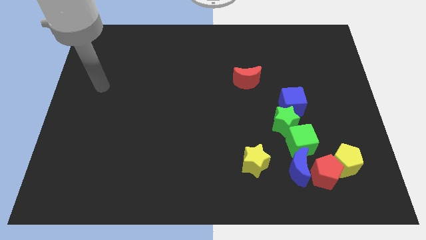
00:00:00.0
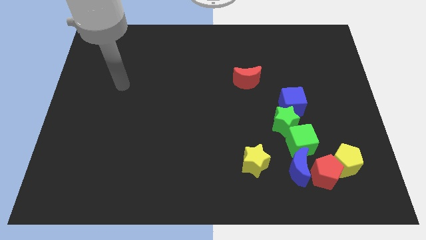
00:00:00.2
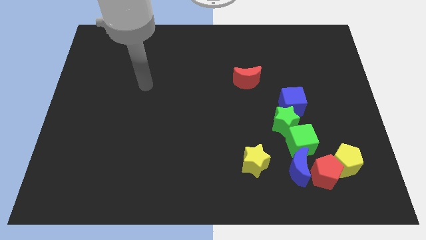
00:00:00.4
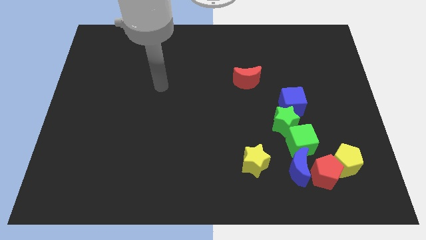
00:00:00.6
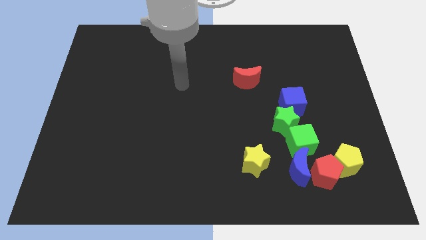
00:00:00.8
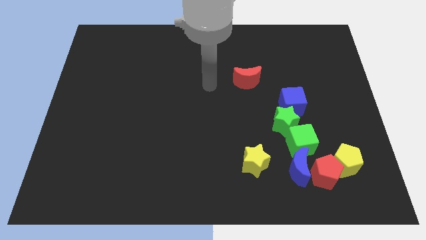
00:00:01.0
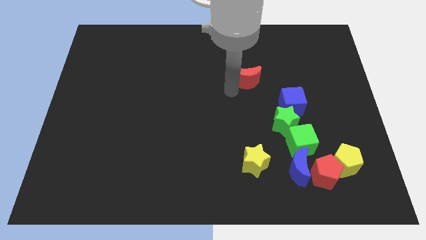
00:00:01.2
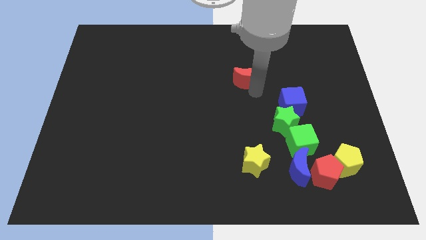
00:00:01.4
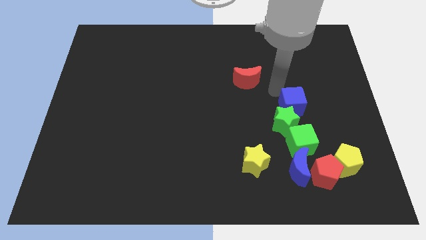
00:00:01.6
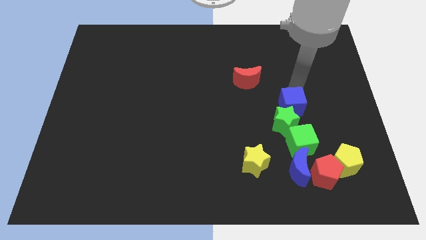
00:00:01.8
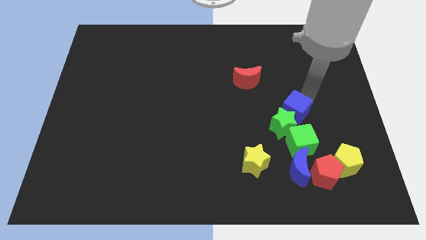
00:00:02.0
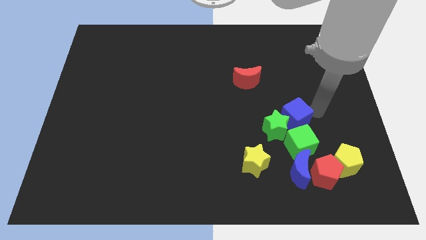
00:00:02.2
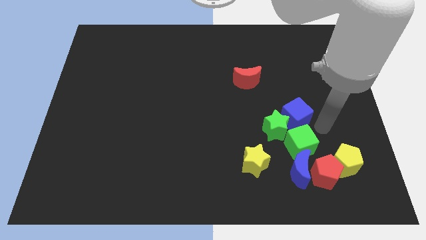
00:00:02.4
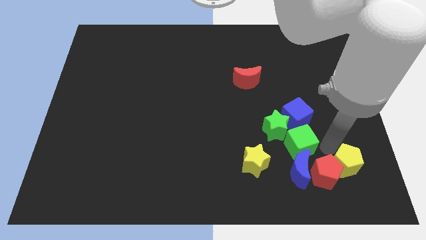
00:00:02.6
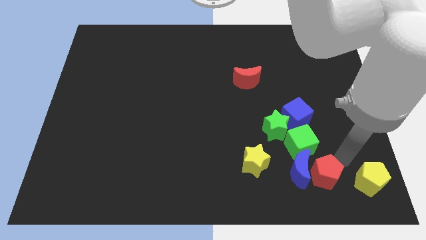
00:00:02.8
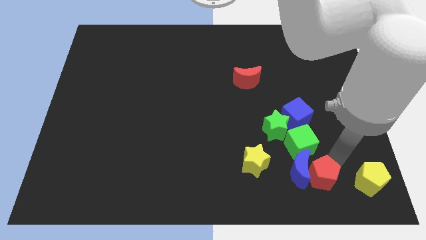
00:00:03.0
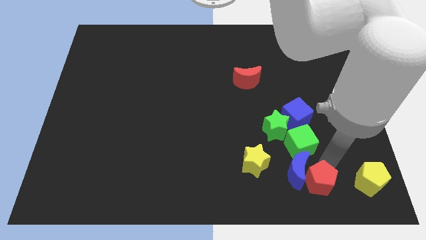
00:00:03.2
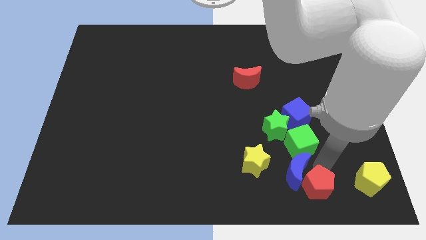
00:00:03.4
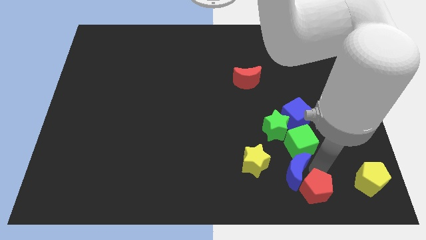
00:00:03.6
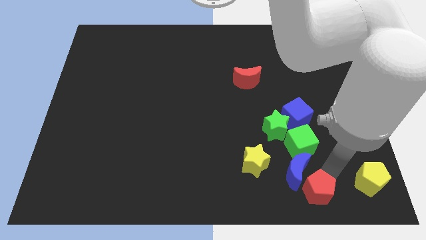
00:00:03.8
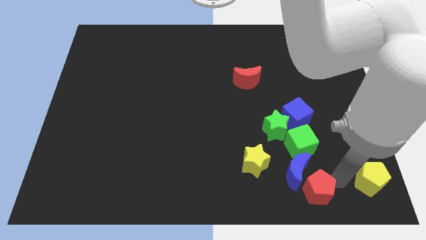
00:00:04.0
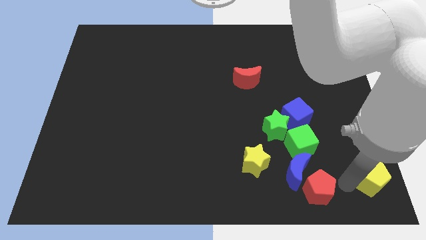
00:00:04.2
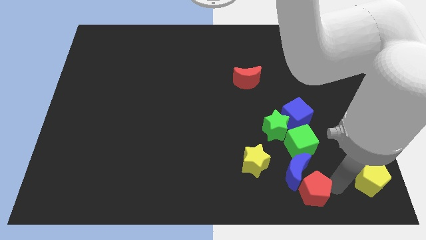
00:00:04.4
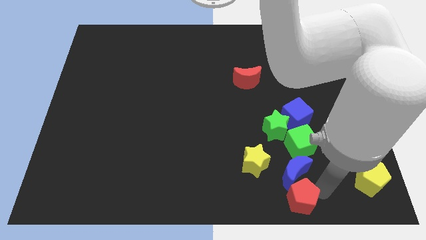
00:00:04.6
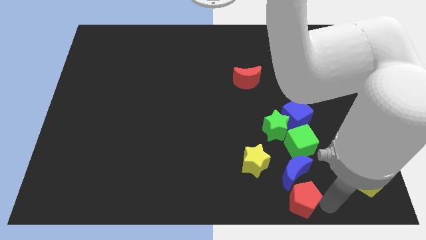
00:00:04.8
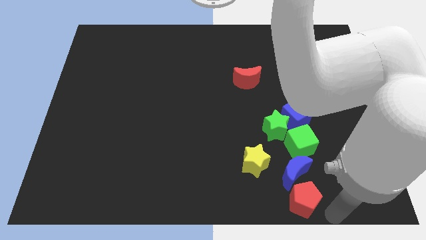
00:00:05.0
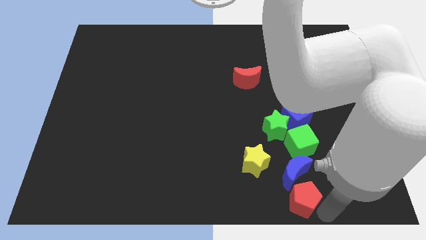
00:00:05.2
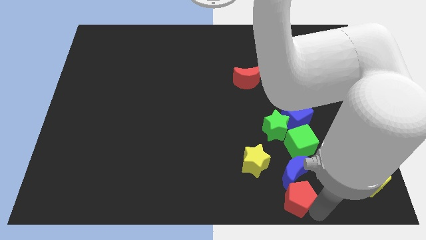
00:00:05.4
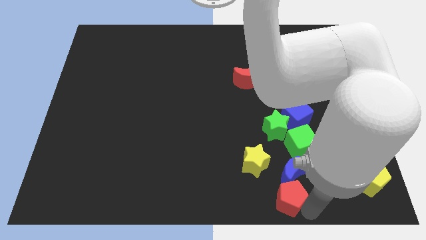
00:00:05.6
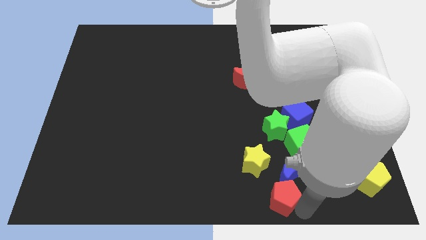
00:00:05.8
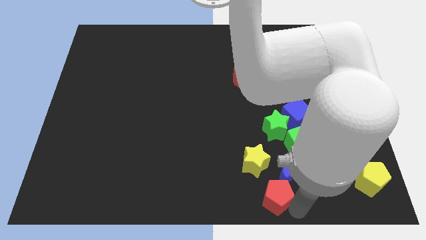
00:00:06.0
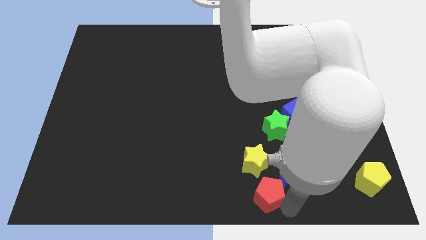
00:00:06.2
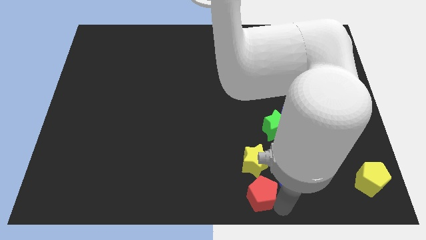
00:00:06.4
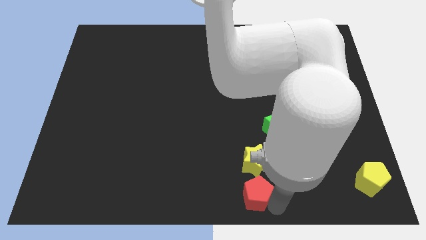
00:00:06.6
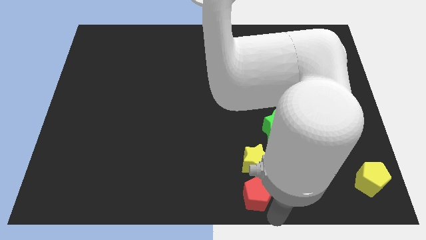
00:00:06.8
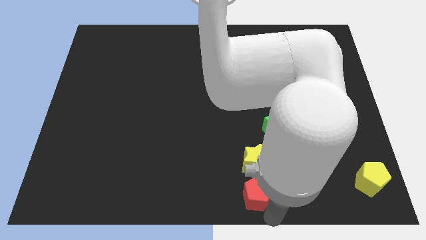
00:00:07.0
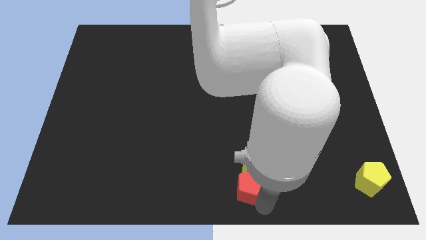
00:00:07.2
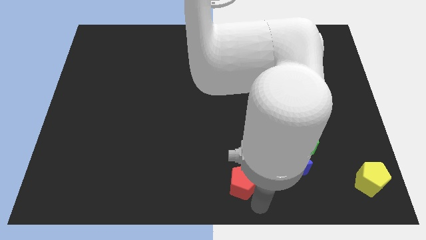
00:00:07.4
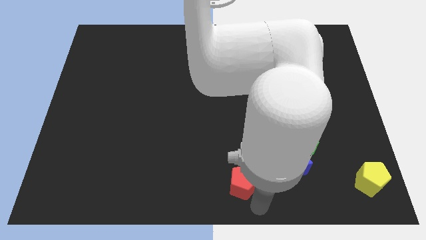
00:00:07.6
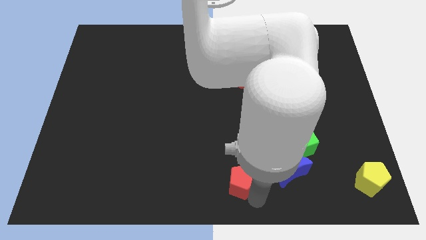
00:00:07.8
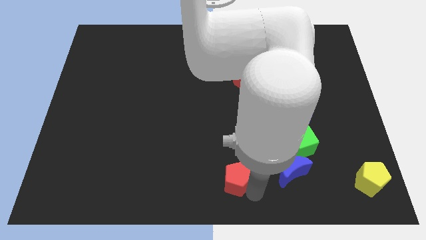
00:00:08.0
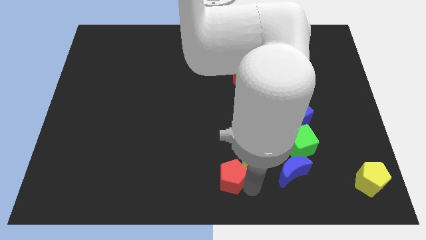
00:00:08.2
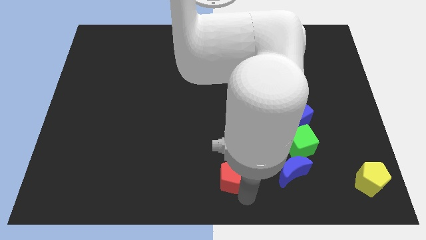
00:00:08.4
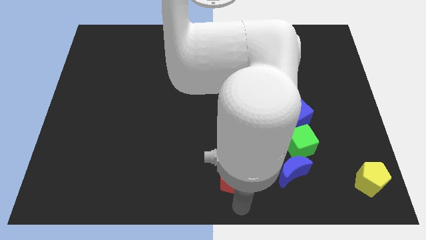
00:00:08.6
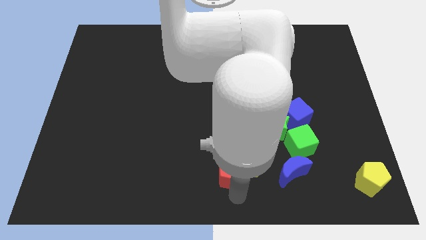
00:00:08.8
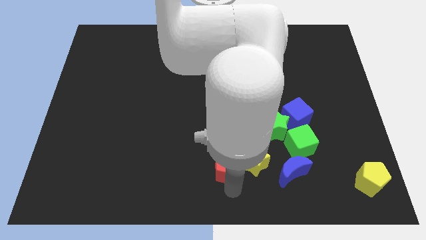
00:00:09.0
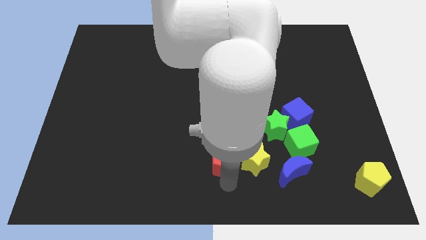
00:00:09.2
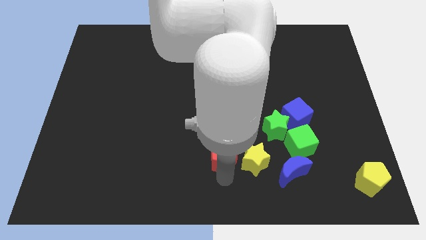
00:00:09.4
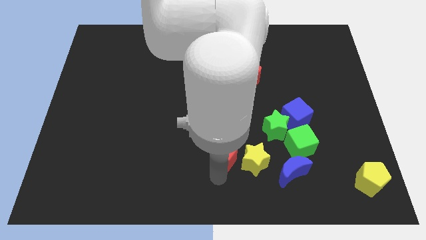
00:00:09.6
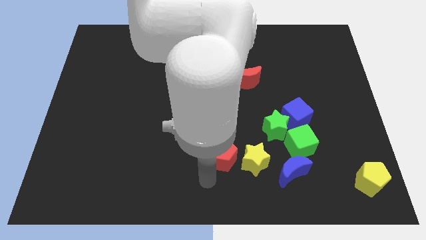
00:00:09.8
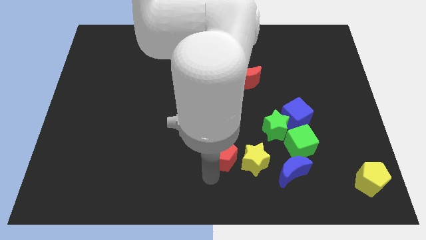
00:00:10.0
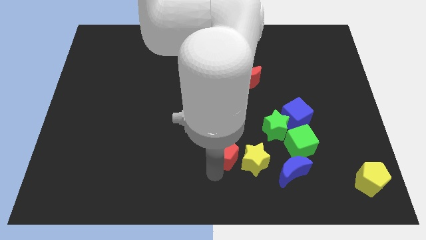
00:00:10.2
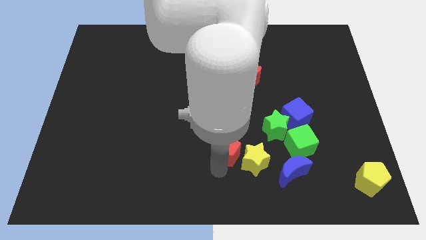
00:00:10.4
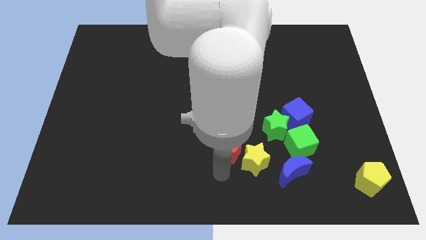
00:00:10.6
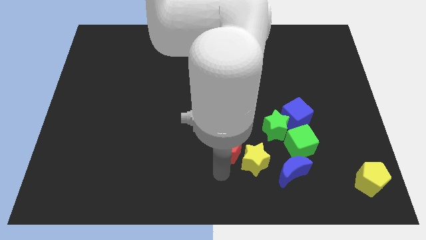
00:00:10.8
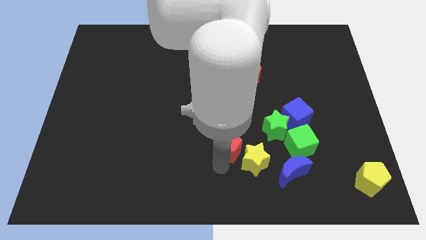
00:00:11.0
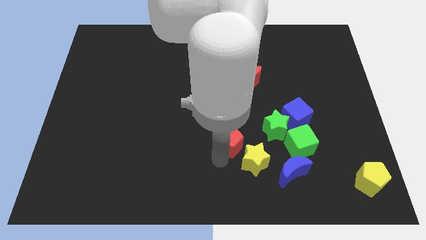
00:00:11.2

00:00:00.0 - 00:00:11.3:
slide the red pentagon to the middle of the board

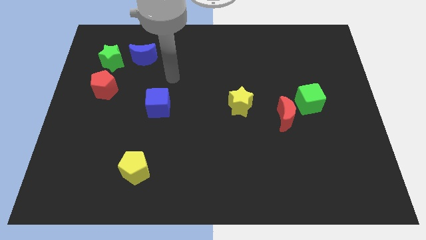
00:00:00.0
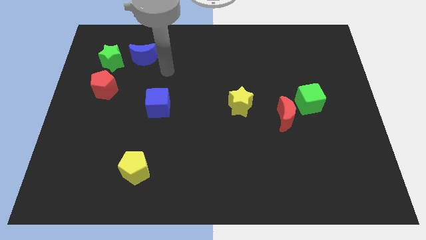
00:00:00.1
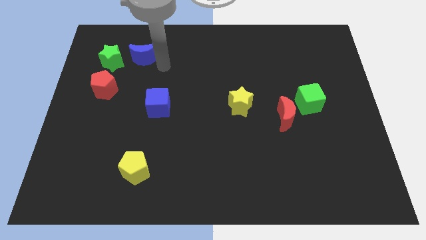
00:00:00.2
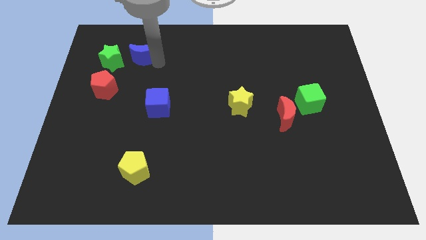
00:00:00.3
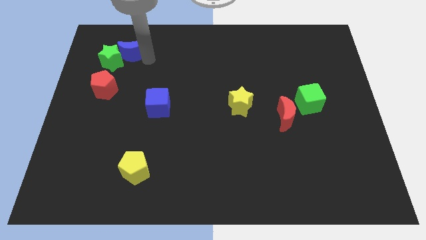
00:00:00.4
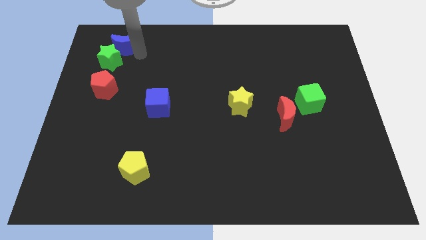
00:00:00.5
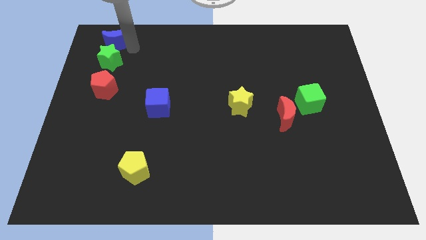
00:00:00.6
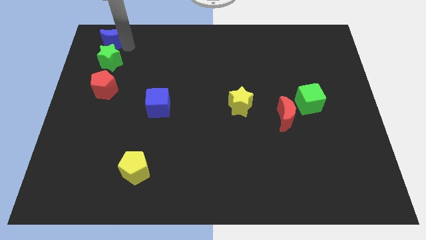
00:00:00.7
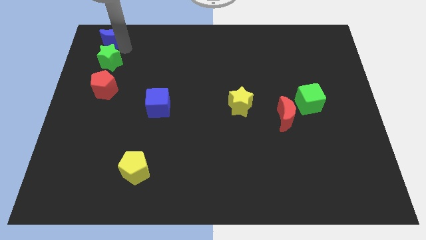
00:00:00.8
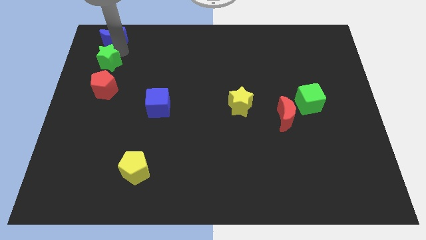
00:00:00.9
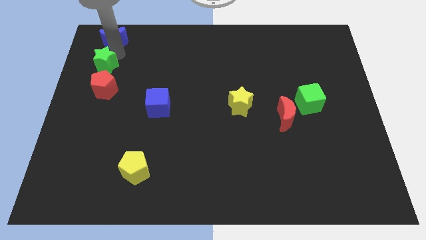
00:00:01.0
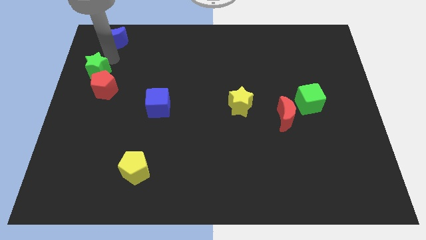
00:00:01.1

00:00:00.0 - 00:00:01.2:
push the green star to the left side of the board
